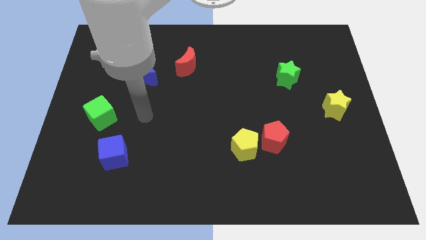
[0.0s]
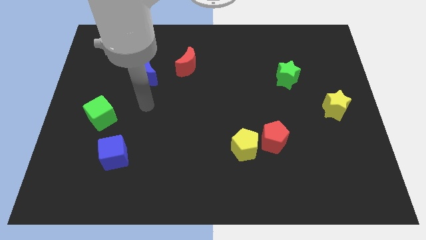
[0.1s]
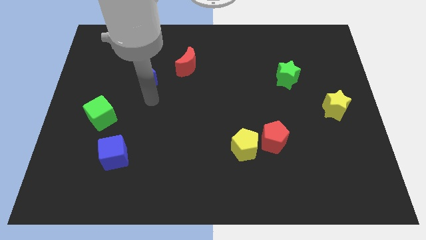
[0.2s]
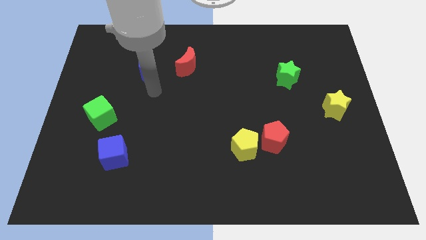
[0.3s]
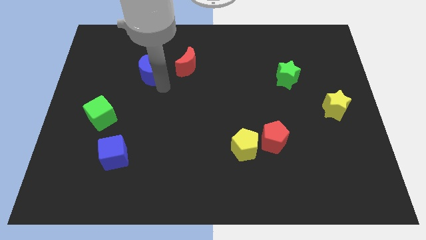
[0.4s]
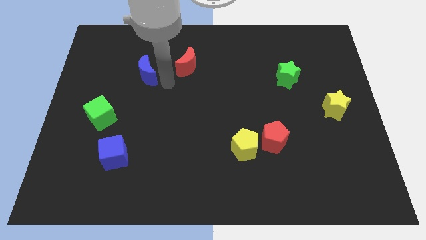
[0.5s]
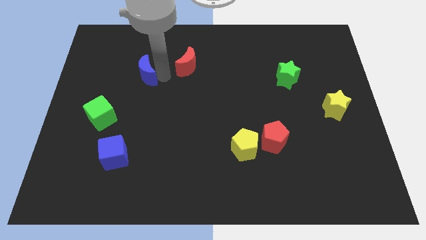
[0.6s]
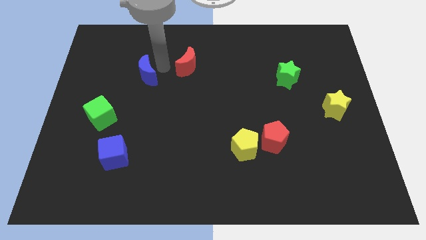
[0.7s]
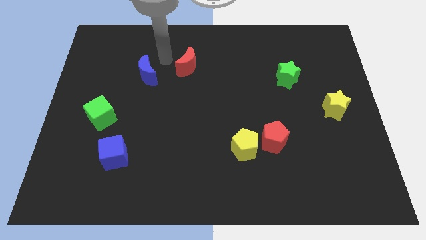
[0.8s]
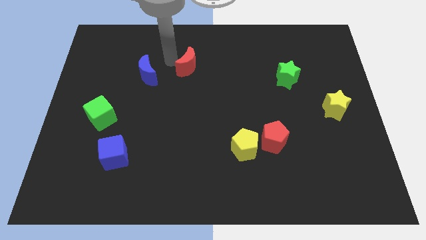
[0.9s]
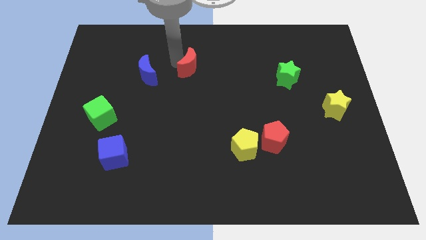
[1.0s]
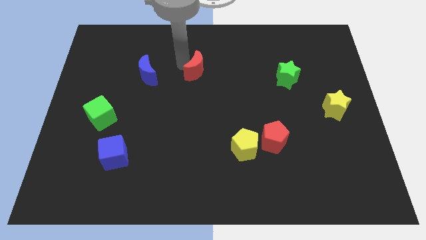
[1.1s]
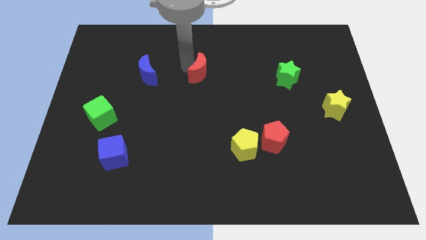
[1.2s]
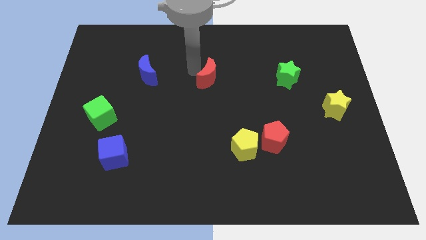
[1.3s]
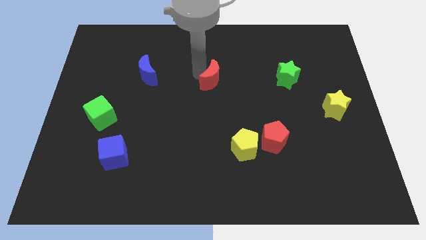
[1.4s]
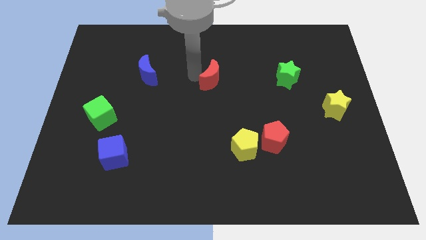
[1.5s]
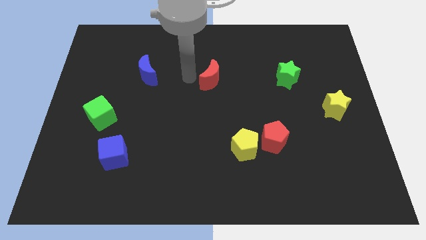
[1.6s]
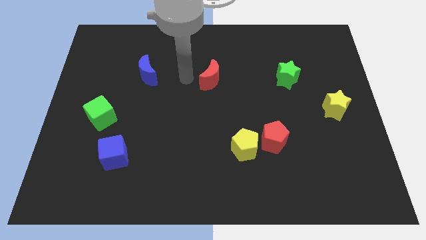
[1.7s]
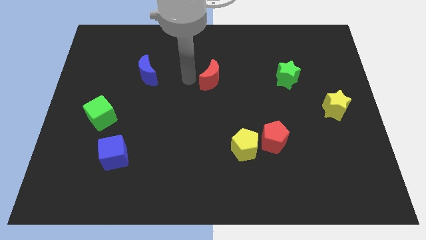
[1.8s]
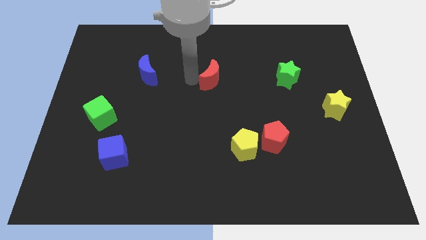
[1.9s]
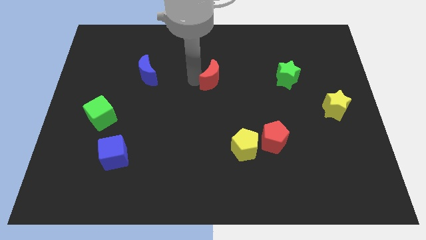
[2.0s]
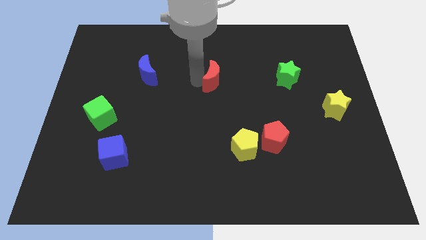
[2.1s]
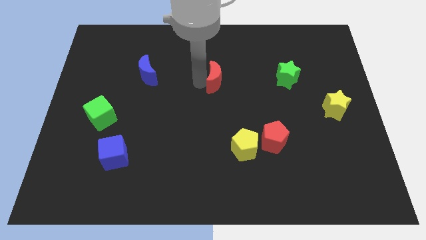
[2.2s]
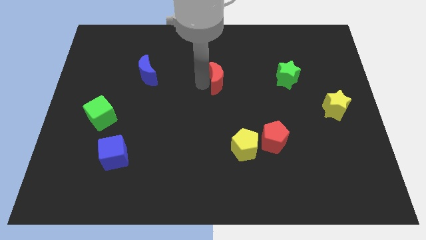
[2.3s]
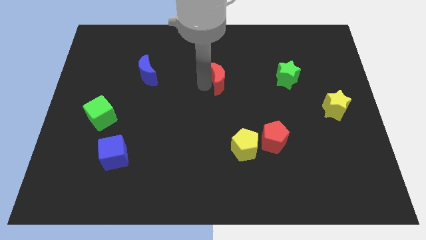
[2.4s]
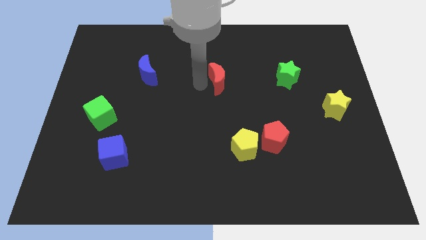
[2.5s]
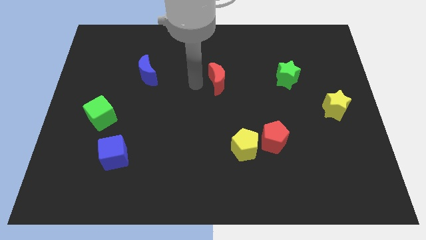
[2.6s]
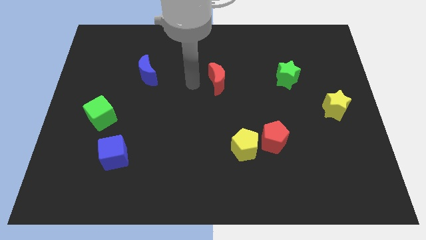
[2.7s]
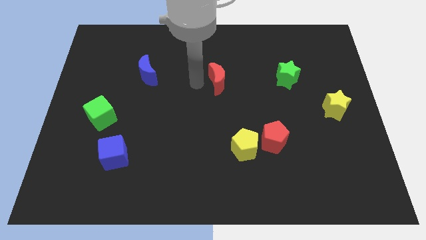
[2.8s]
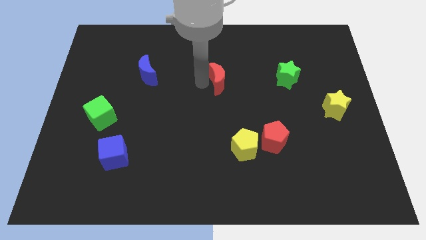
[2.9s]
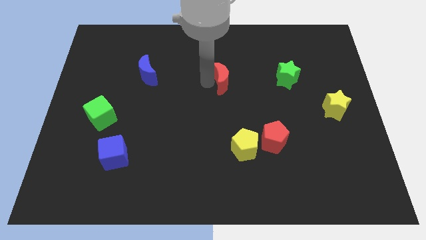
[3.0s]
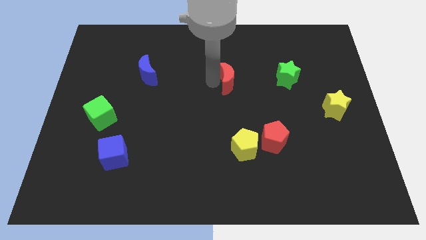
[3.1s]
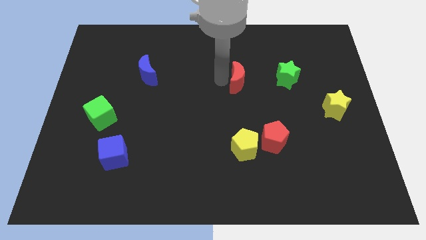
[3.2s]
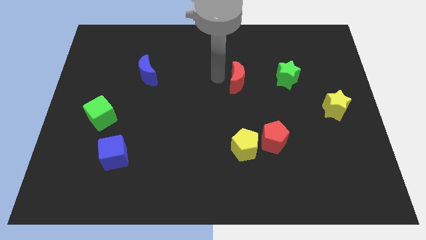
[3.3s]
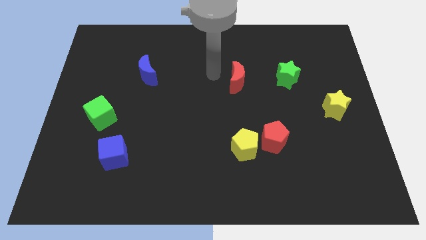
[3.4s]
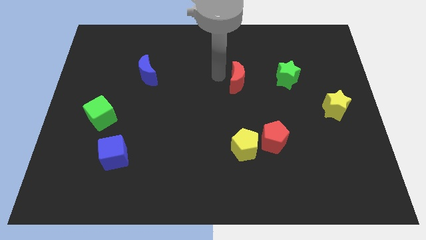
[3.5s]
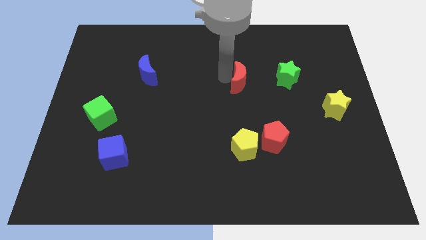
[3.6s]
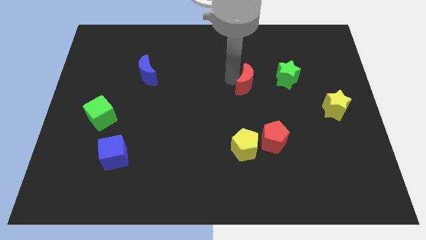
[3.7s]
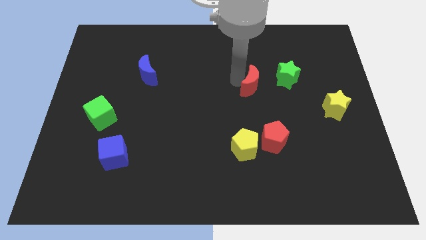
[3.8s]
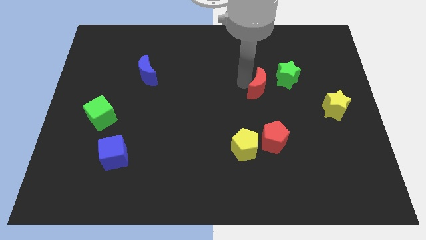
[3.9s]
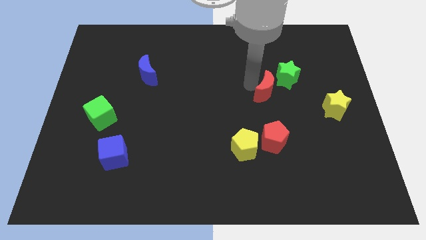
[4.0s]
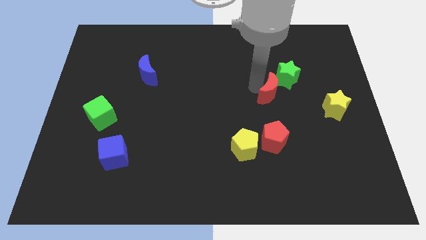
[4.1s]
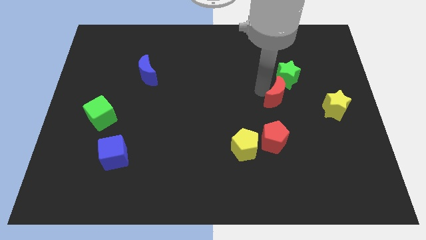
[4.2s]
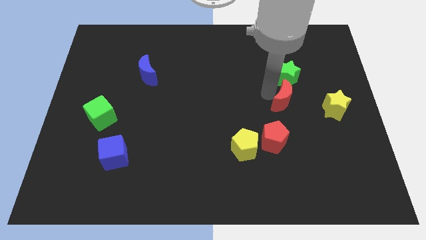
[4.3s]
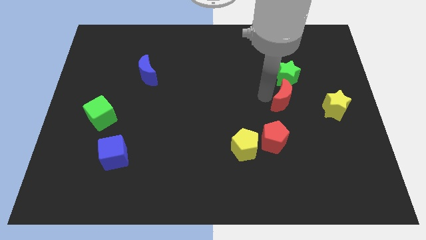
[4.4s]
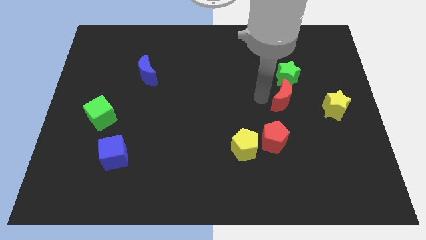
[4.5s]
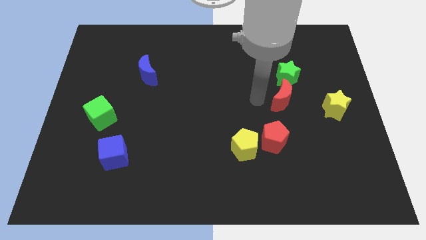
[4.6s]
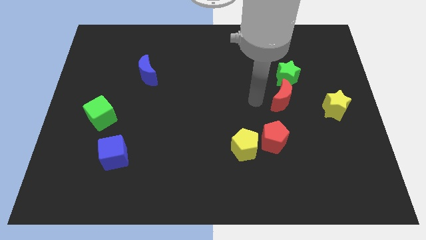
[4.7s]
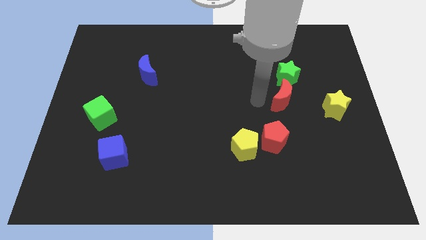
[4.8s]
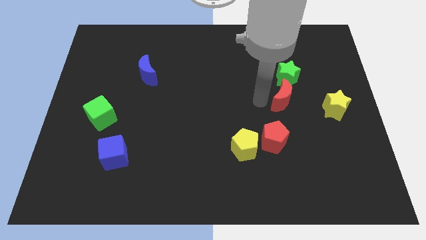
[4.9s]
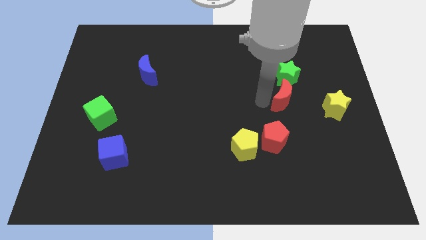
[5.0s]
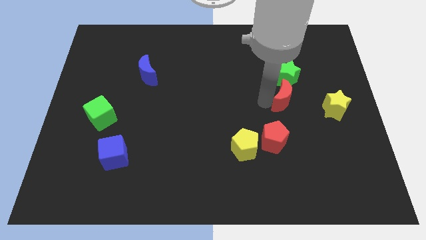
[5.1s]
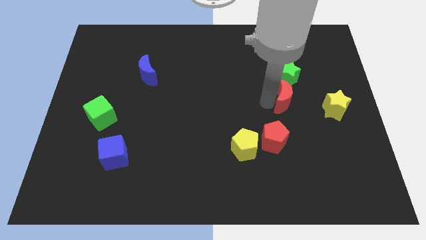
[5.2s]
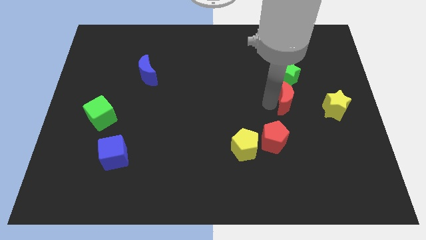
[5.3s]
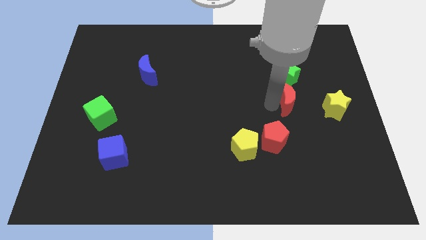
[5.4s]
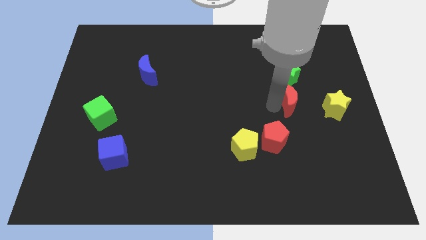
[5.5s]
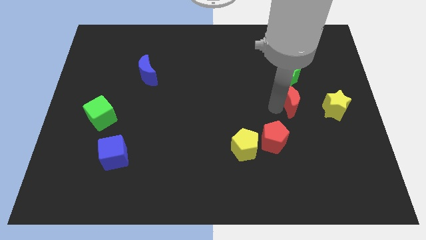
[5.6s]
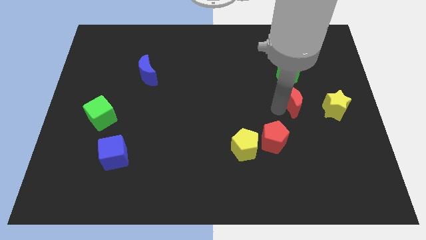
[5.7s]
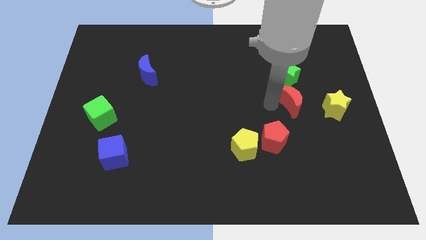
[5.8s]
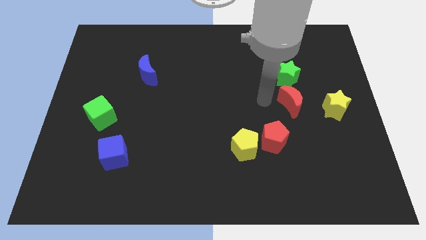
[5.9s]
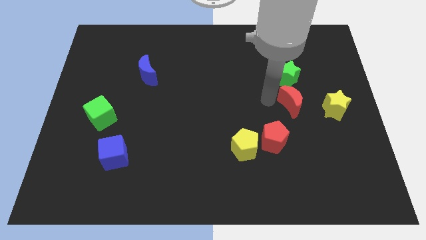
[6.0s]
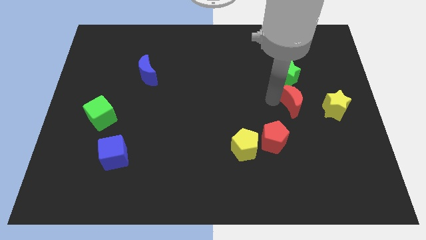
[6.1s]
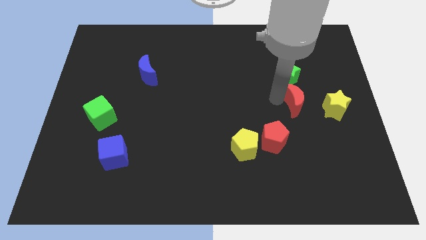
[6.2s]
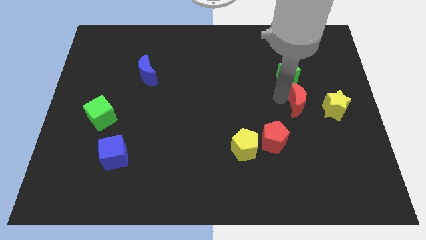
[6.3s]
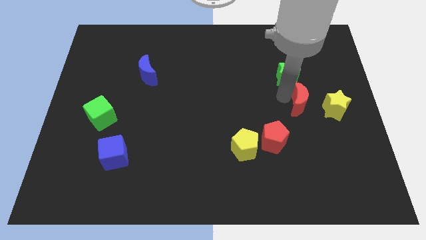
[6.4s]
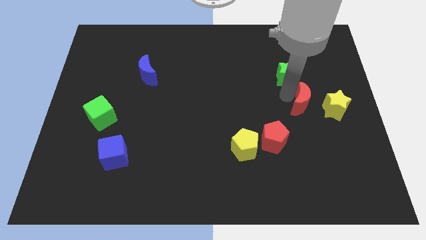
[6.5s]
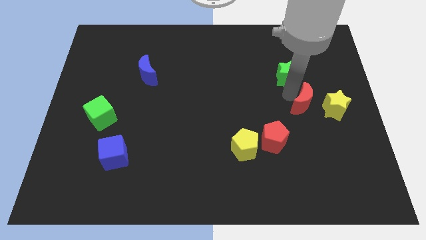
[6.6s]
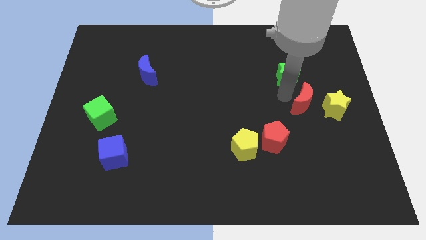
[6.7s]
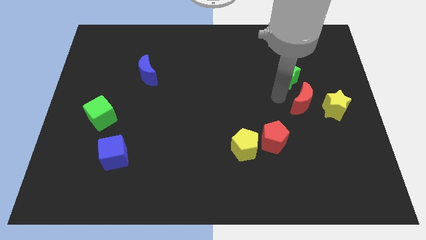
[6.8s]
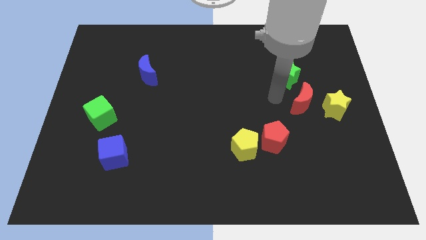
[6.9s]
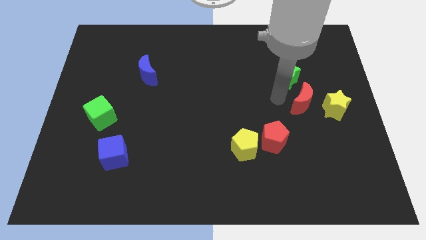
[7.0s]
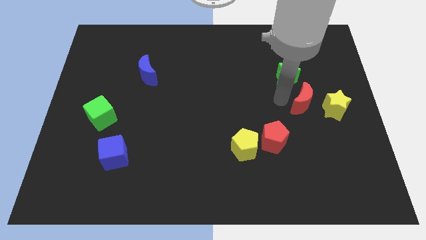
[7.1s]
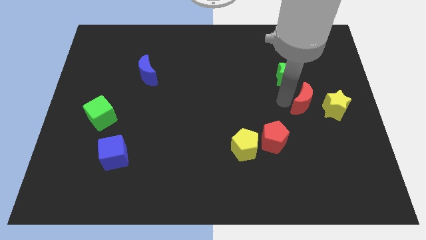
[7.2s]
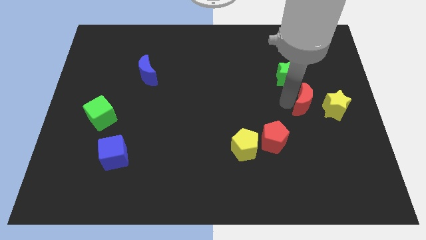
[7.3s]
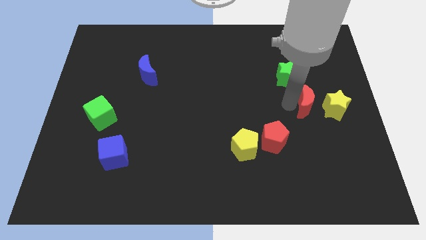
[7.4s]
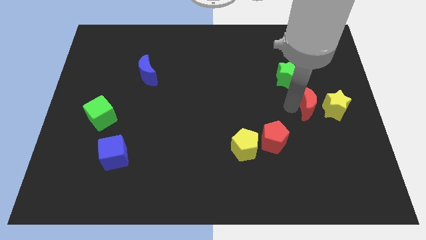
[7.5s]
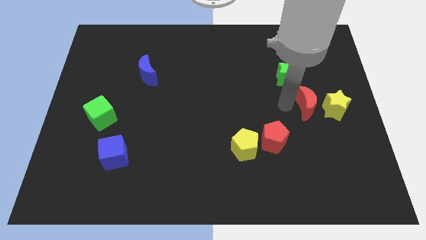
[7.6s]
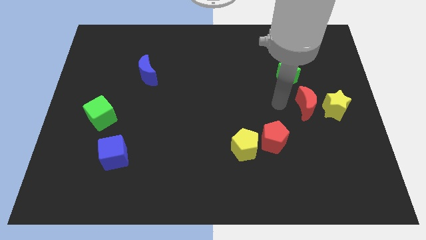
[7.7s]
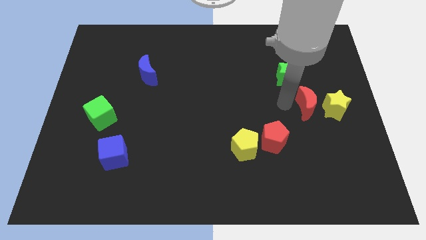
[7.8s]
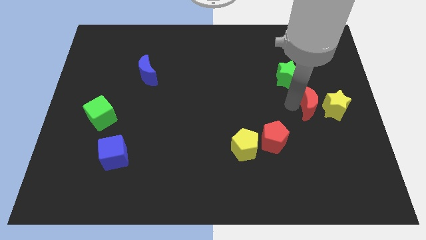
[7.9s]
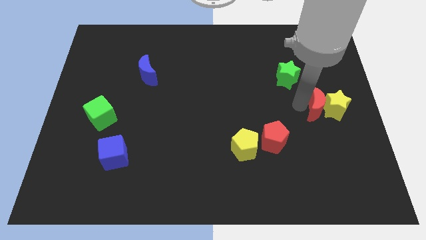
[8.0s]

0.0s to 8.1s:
push the red moon close to the yellow star
